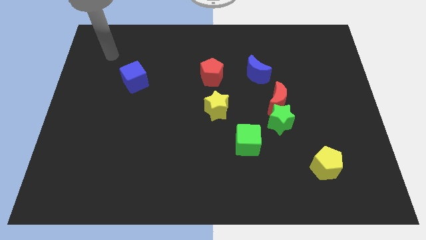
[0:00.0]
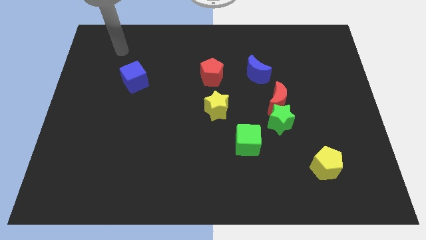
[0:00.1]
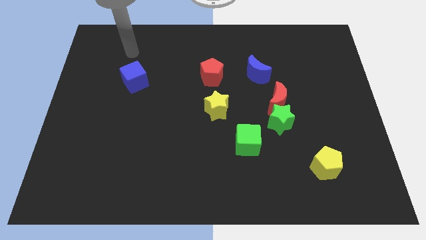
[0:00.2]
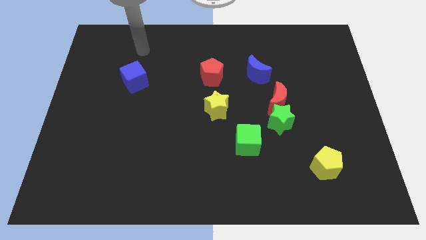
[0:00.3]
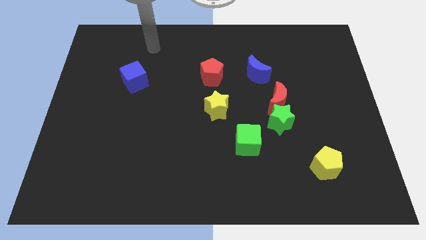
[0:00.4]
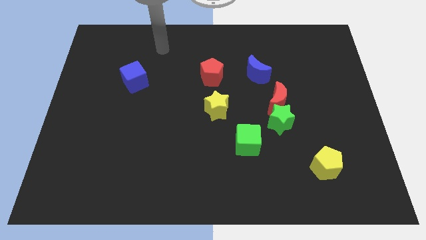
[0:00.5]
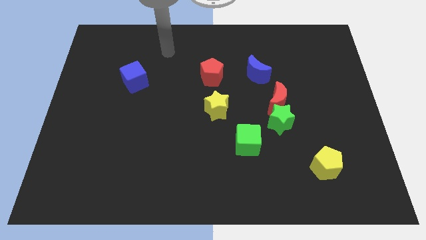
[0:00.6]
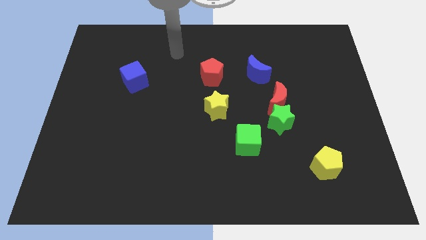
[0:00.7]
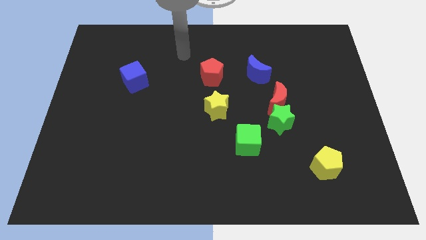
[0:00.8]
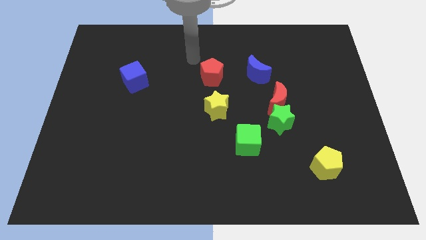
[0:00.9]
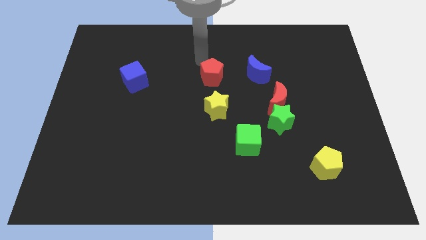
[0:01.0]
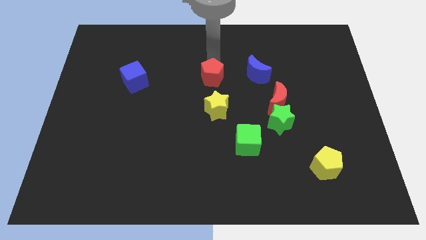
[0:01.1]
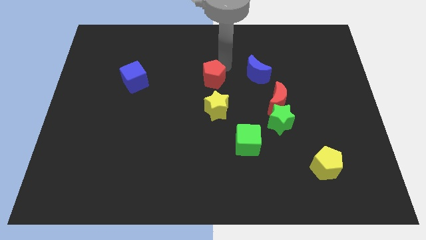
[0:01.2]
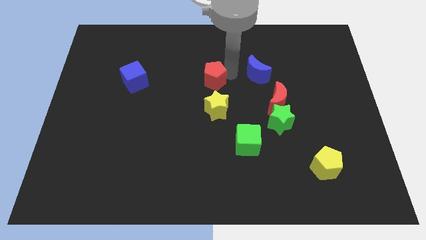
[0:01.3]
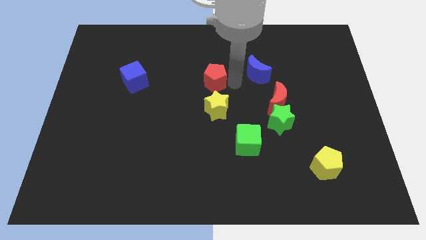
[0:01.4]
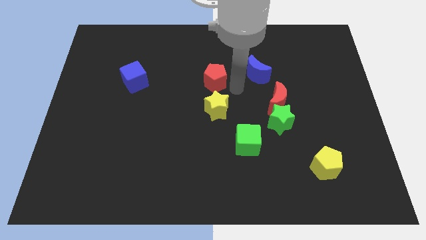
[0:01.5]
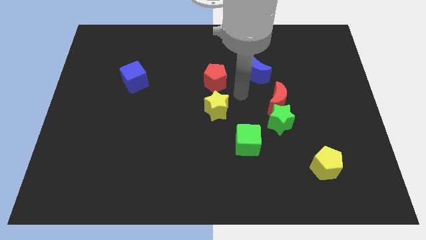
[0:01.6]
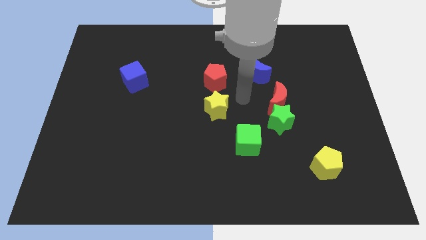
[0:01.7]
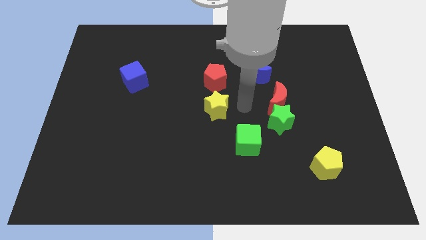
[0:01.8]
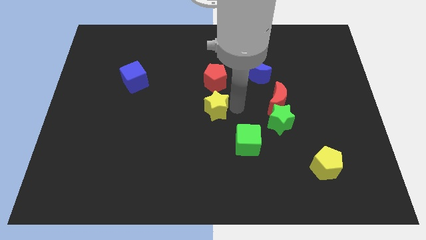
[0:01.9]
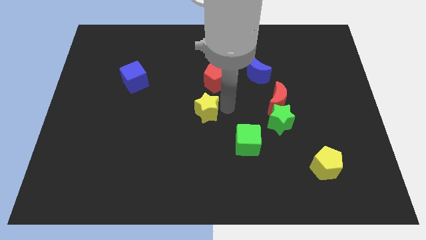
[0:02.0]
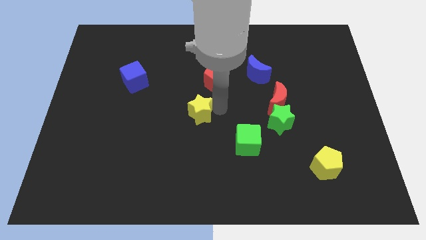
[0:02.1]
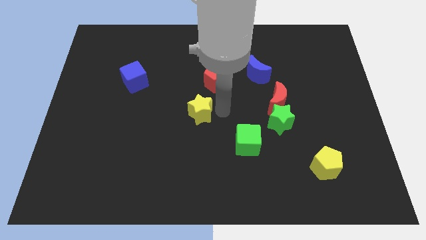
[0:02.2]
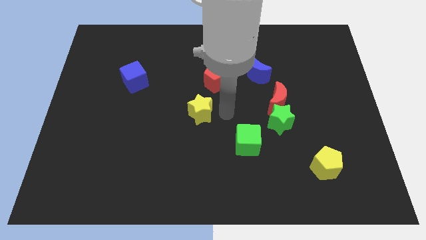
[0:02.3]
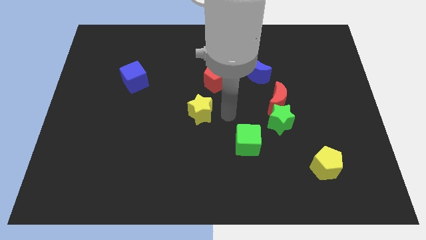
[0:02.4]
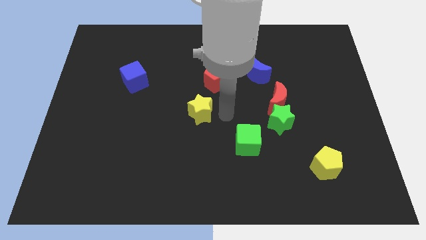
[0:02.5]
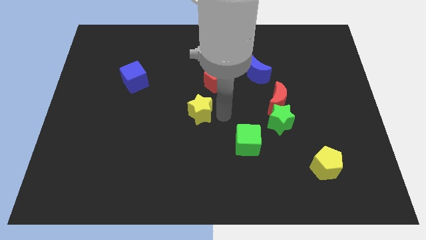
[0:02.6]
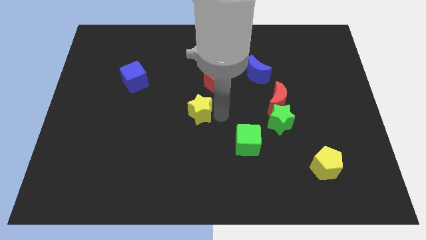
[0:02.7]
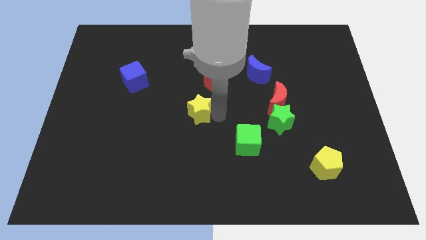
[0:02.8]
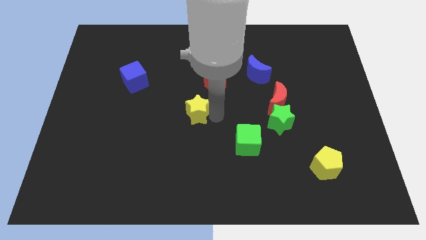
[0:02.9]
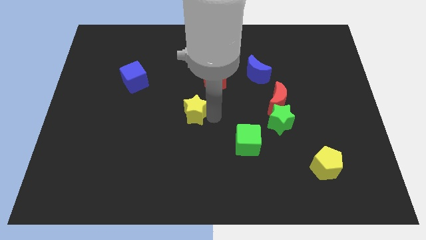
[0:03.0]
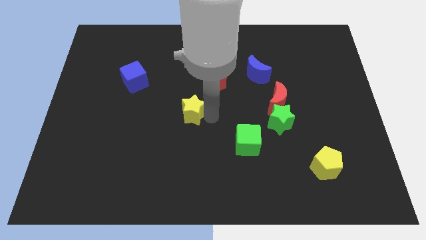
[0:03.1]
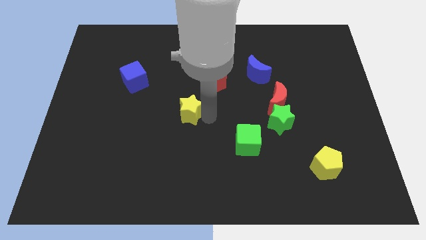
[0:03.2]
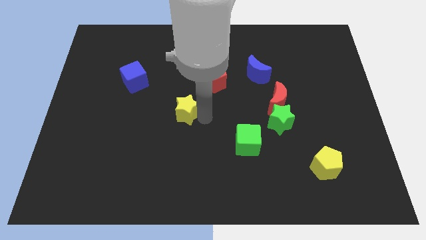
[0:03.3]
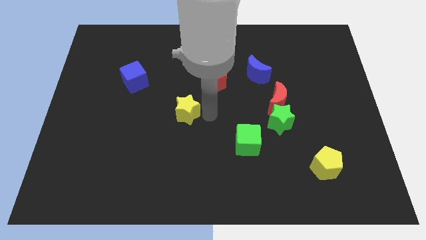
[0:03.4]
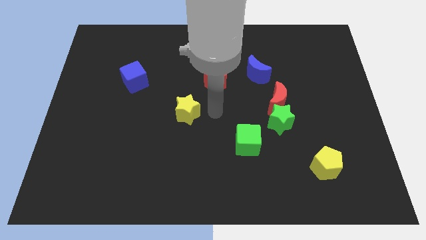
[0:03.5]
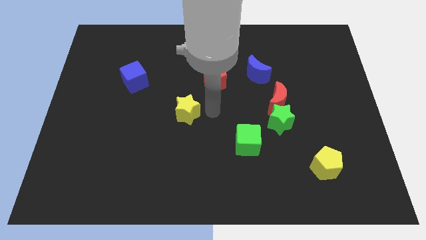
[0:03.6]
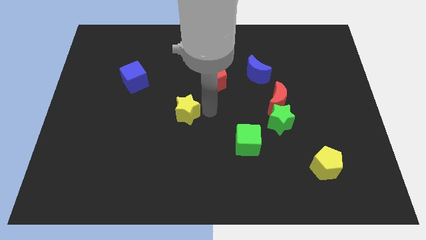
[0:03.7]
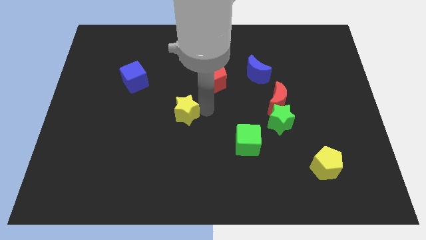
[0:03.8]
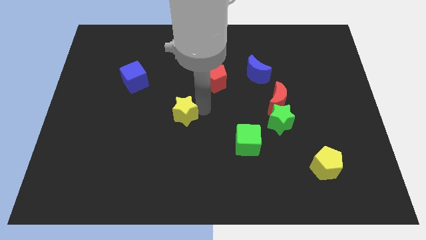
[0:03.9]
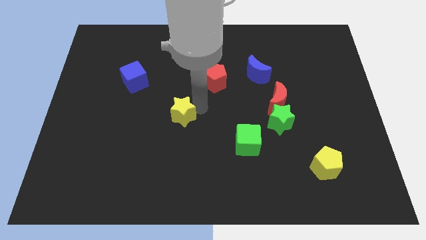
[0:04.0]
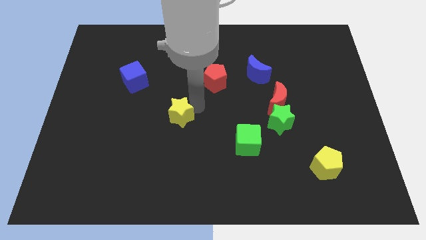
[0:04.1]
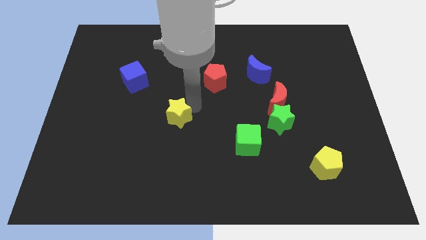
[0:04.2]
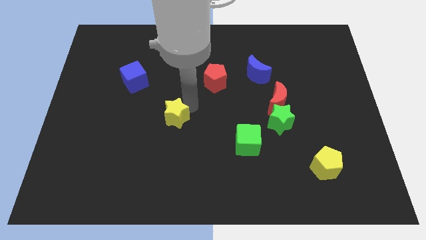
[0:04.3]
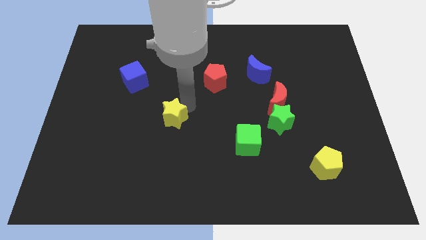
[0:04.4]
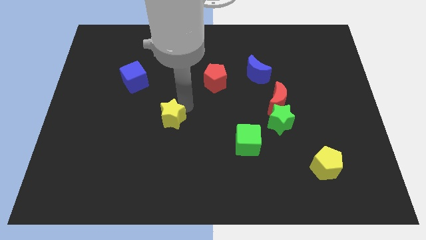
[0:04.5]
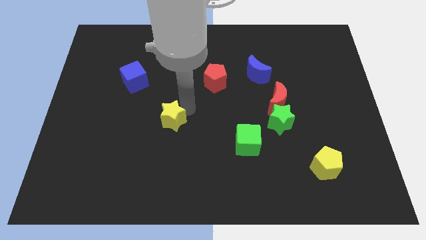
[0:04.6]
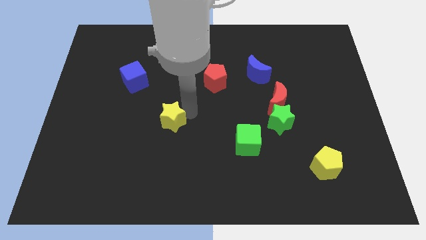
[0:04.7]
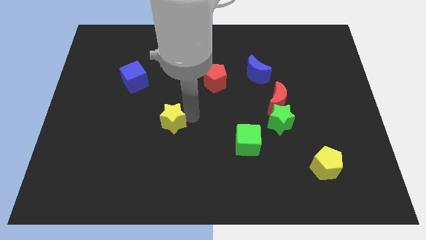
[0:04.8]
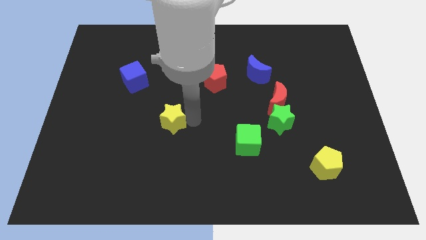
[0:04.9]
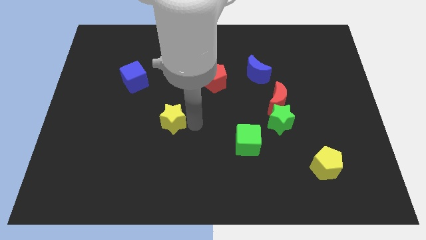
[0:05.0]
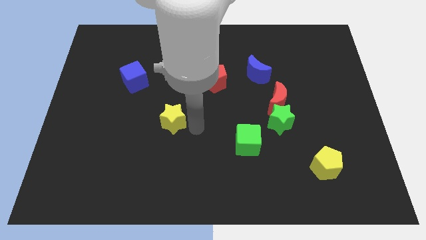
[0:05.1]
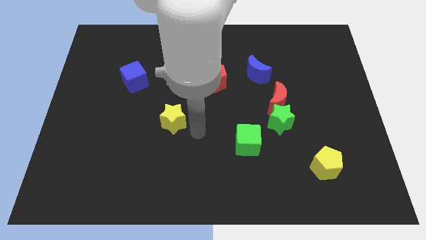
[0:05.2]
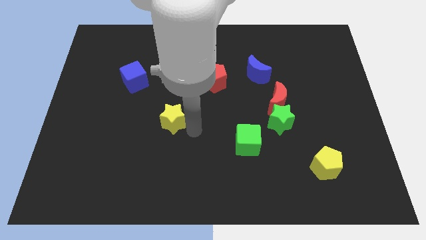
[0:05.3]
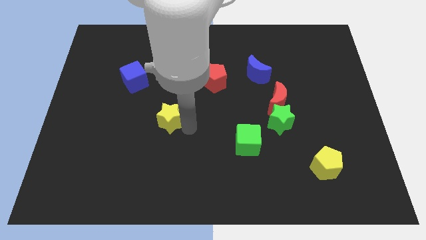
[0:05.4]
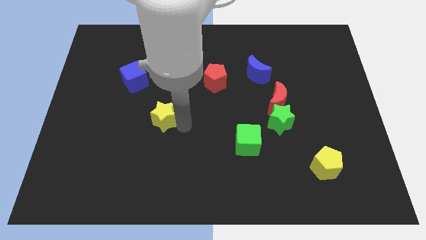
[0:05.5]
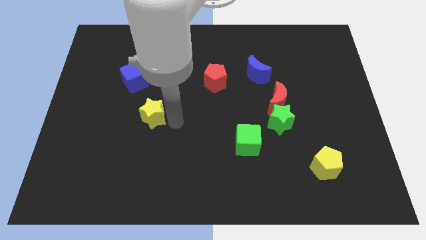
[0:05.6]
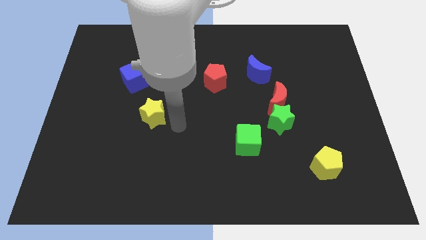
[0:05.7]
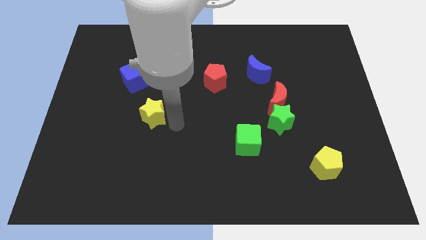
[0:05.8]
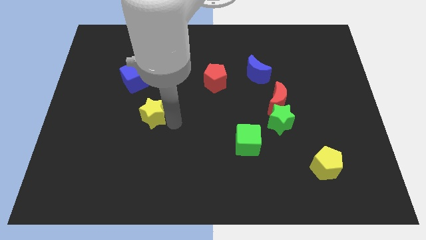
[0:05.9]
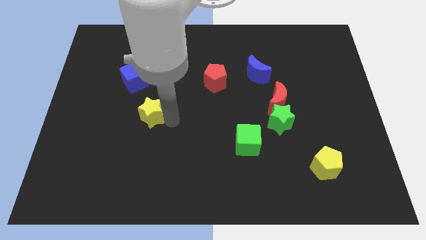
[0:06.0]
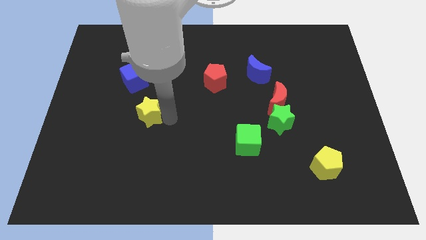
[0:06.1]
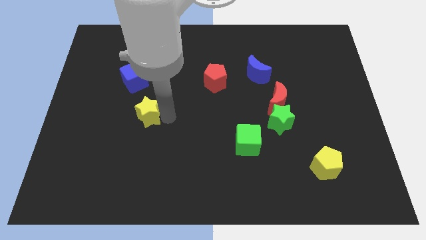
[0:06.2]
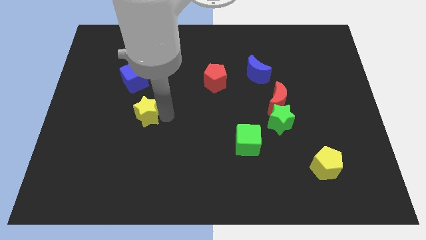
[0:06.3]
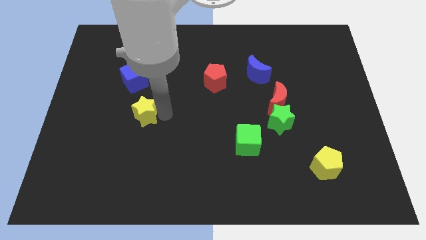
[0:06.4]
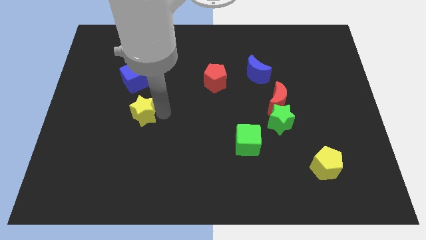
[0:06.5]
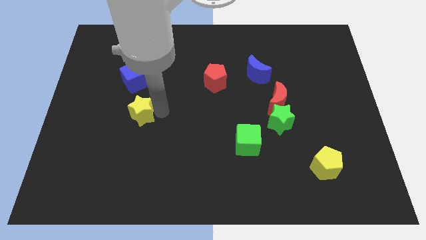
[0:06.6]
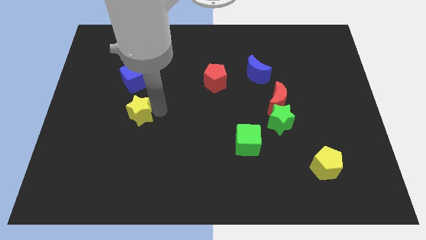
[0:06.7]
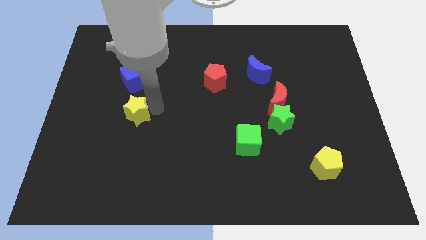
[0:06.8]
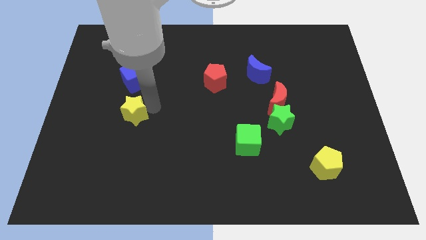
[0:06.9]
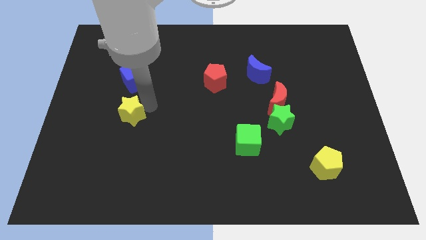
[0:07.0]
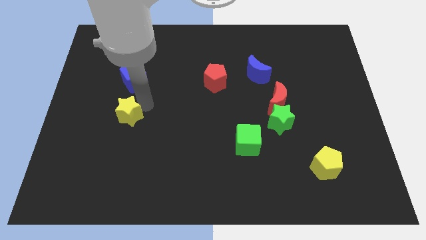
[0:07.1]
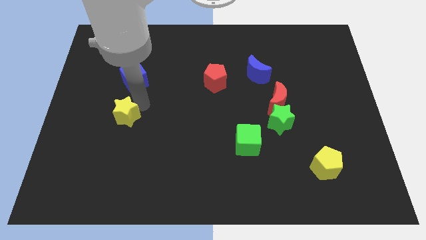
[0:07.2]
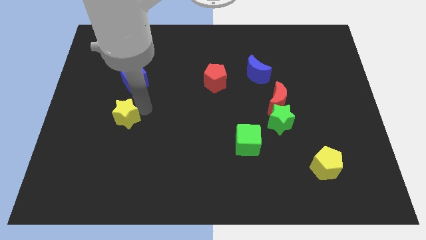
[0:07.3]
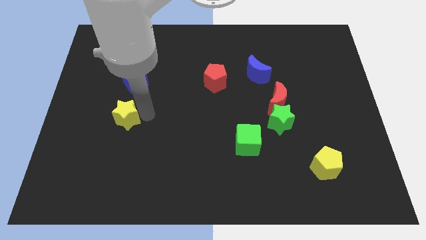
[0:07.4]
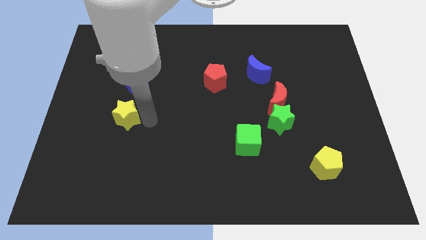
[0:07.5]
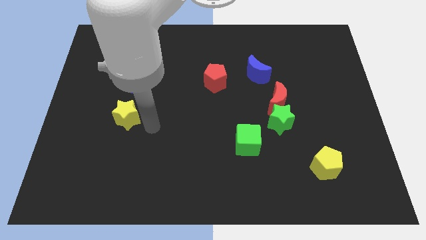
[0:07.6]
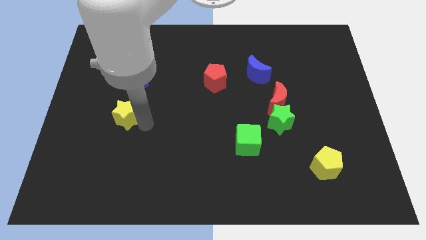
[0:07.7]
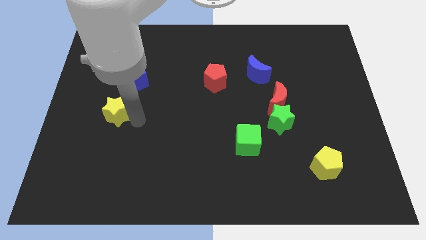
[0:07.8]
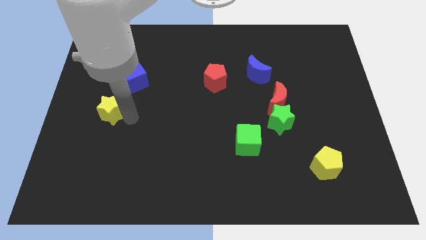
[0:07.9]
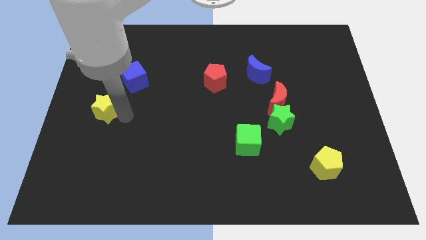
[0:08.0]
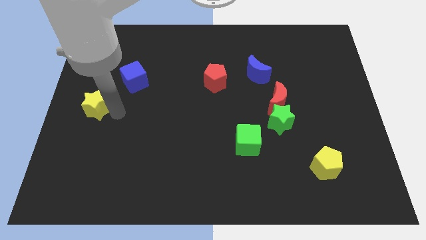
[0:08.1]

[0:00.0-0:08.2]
push the yellow star to the center left
